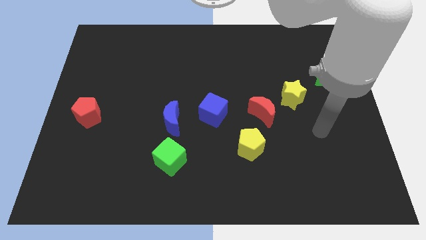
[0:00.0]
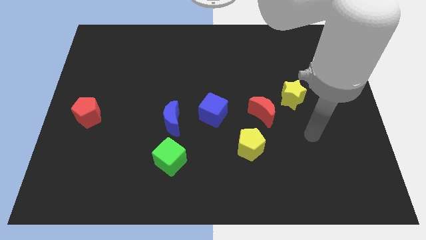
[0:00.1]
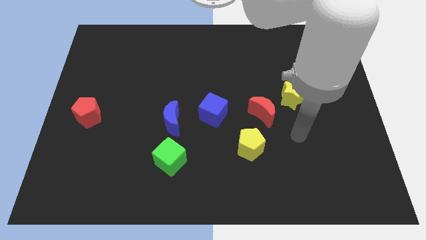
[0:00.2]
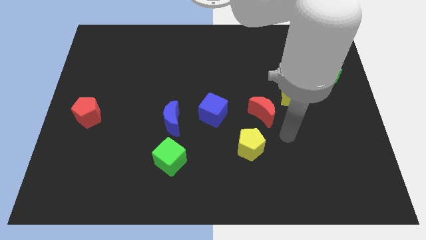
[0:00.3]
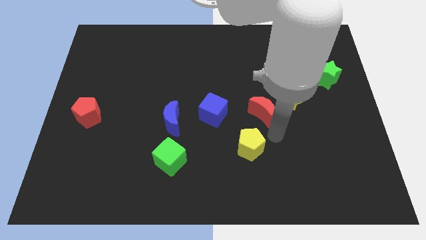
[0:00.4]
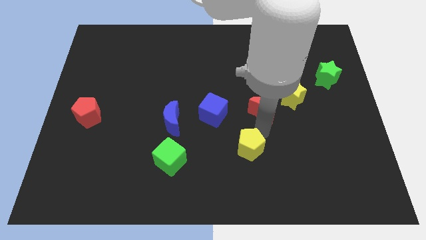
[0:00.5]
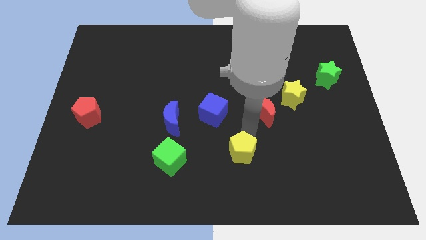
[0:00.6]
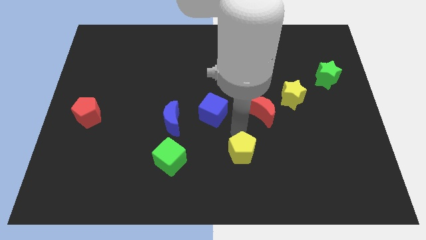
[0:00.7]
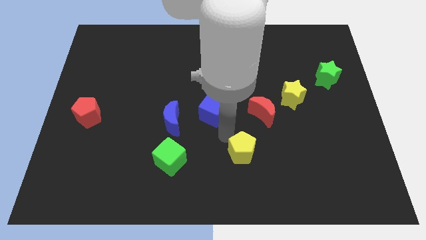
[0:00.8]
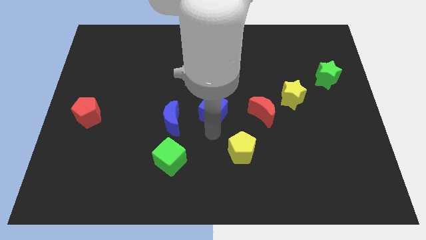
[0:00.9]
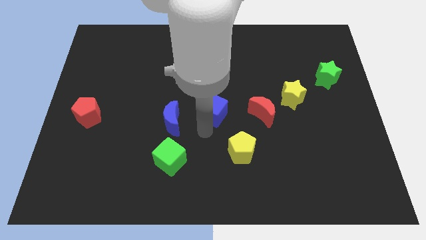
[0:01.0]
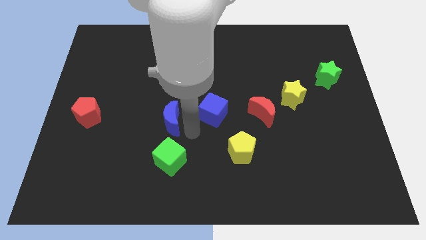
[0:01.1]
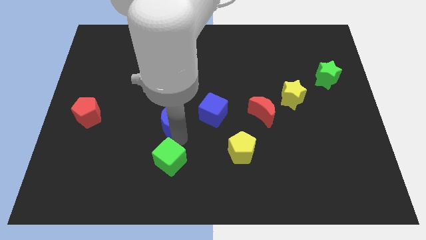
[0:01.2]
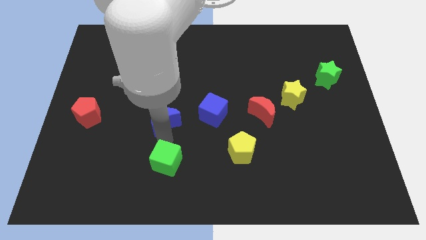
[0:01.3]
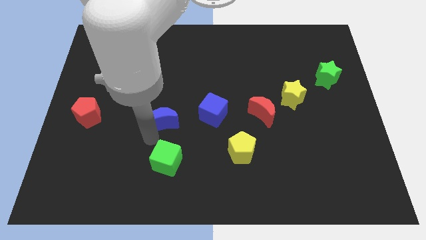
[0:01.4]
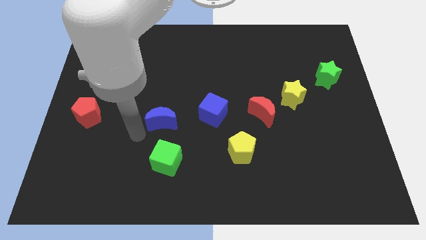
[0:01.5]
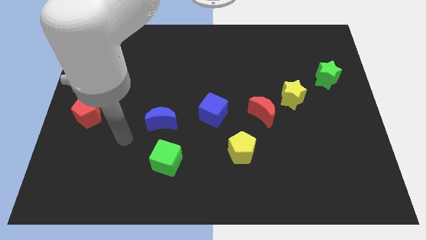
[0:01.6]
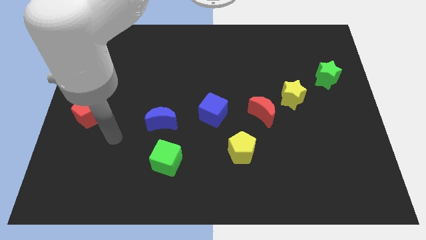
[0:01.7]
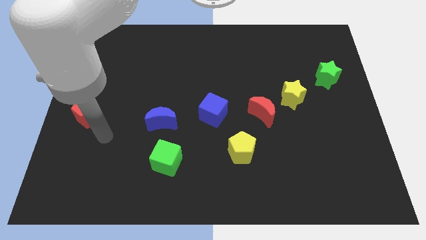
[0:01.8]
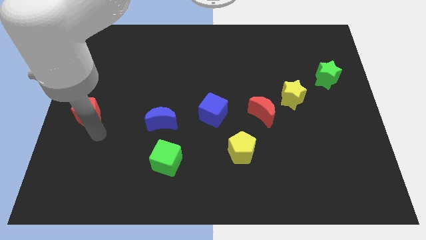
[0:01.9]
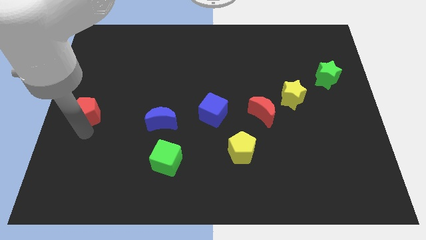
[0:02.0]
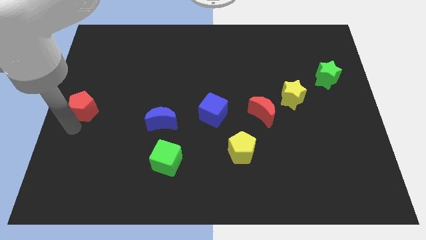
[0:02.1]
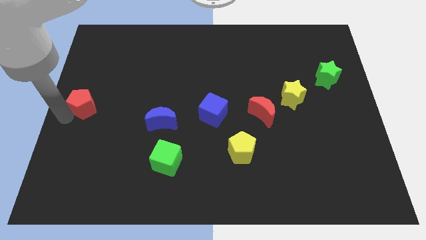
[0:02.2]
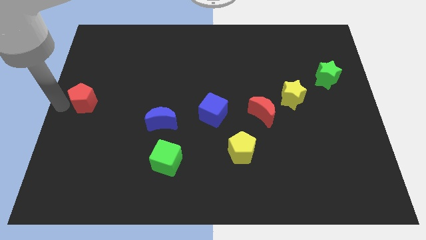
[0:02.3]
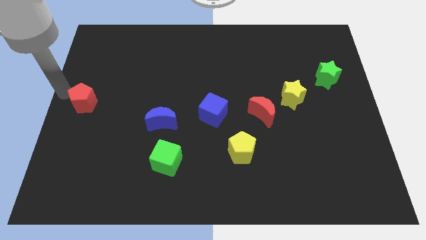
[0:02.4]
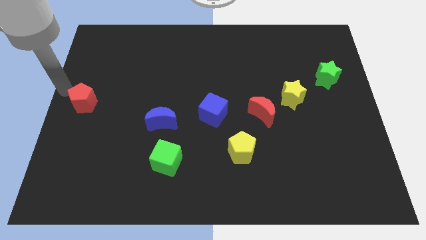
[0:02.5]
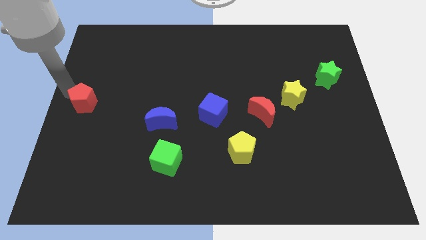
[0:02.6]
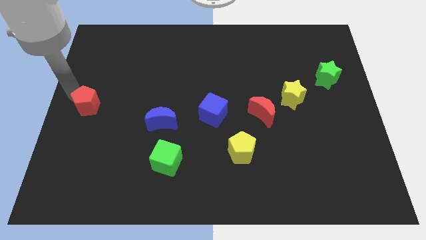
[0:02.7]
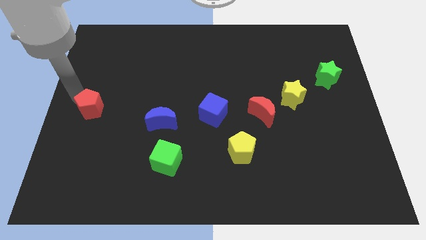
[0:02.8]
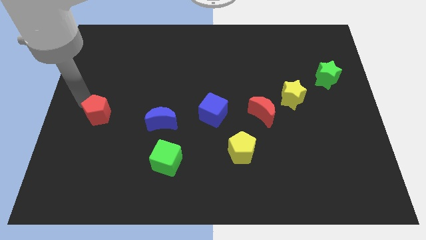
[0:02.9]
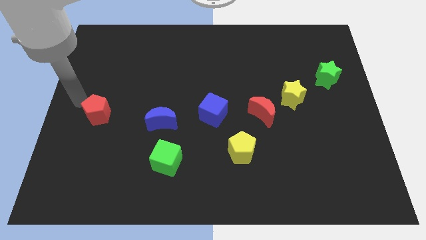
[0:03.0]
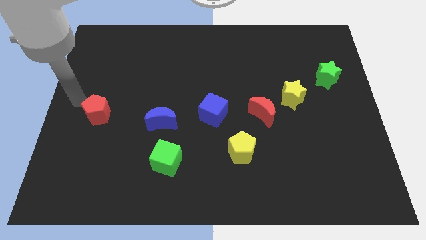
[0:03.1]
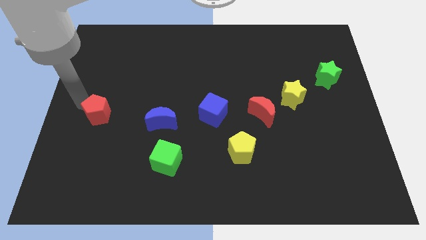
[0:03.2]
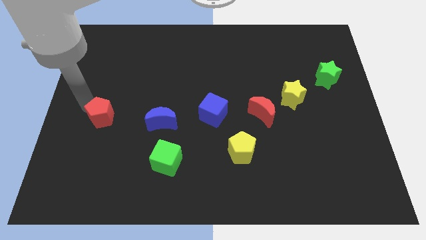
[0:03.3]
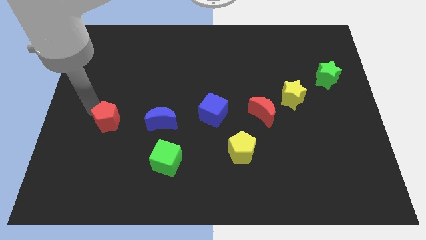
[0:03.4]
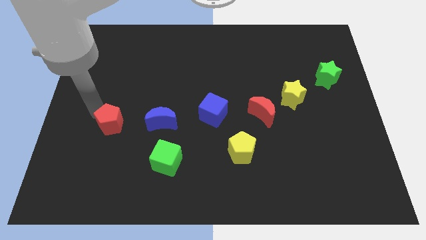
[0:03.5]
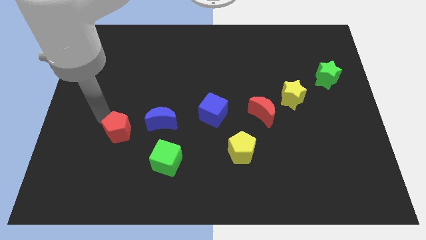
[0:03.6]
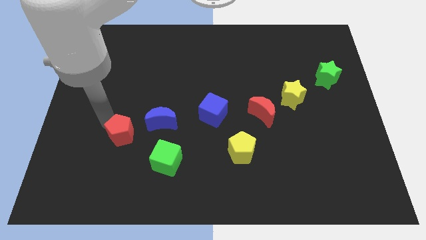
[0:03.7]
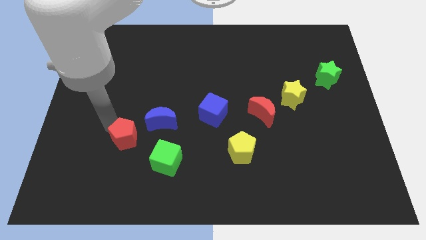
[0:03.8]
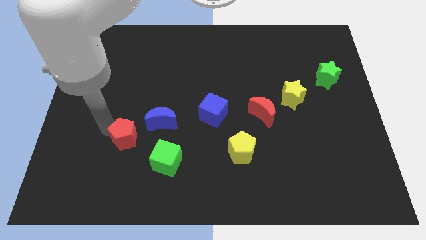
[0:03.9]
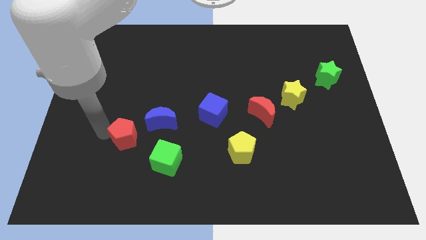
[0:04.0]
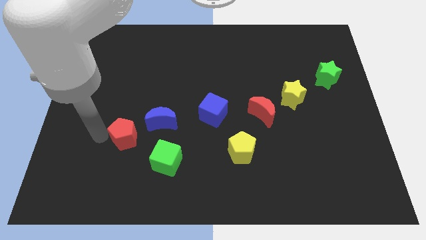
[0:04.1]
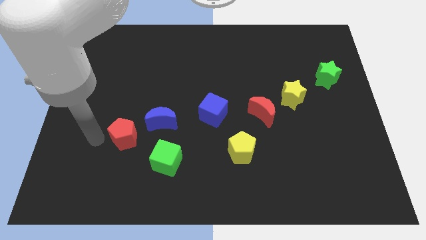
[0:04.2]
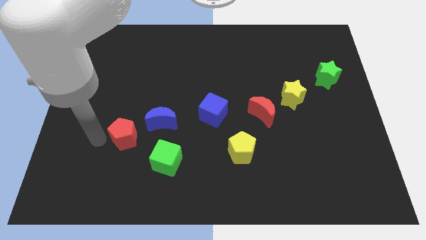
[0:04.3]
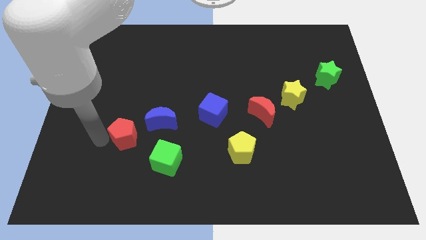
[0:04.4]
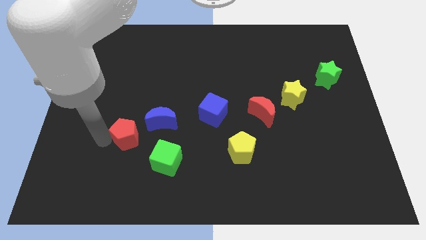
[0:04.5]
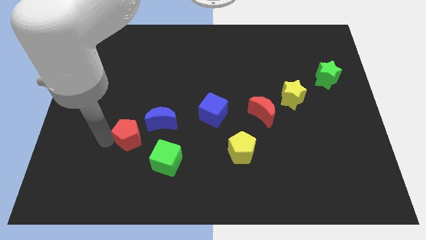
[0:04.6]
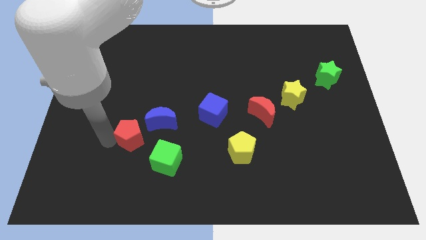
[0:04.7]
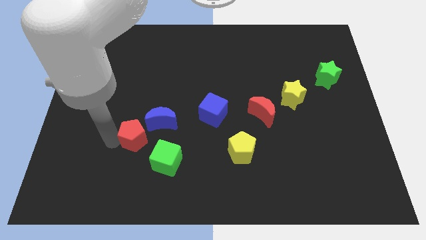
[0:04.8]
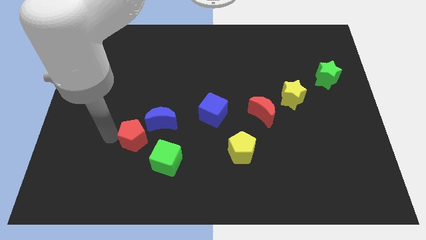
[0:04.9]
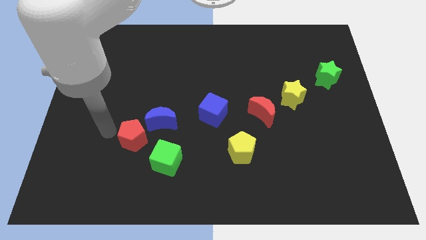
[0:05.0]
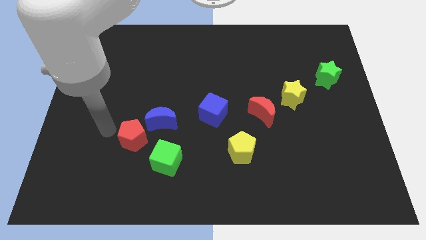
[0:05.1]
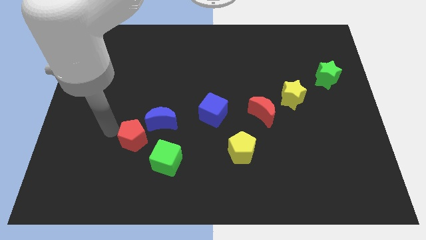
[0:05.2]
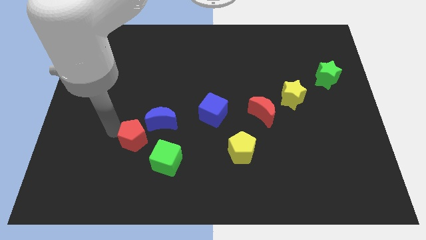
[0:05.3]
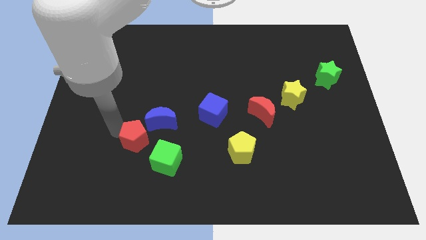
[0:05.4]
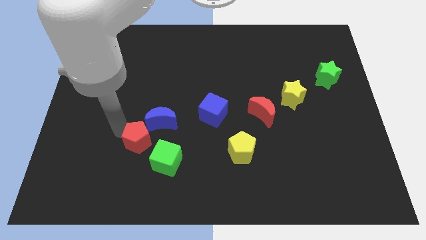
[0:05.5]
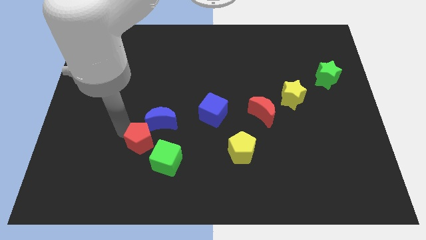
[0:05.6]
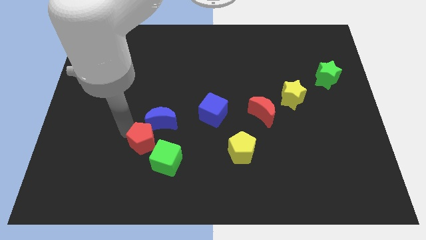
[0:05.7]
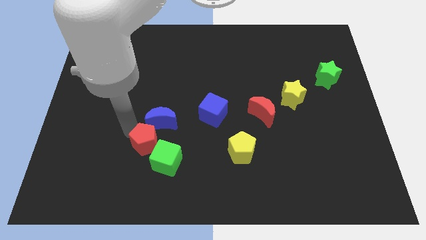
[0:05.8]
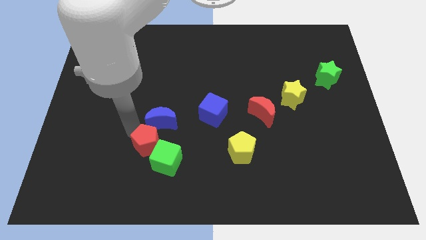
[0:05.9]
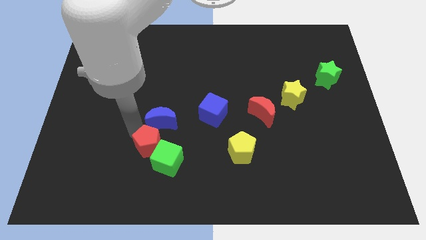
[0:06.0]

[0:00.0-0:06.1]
put the red pentagon towards the green cube

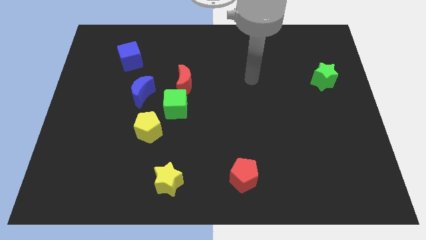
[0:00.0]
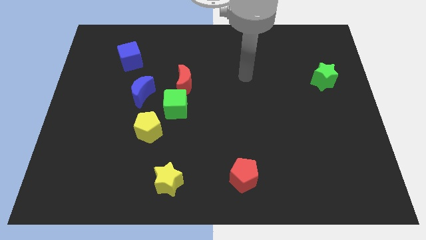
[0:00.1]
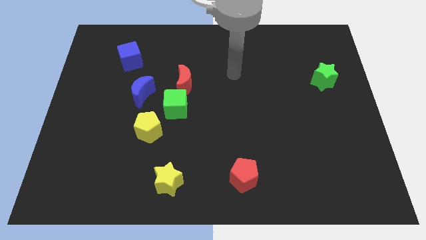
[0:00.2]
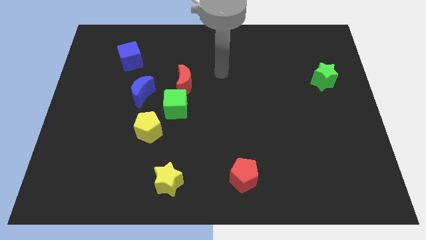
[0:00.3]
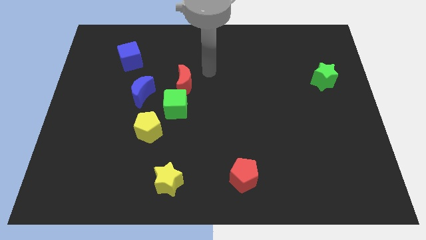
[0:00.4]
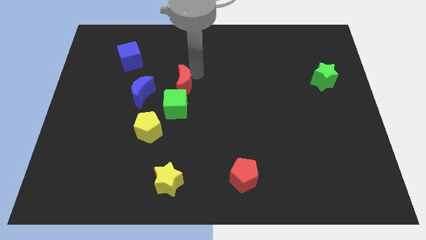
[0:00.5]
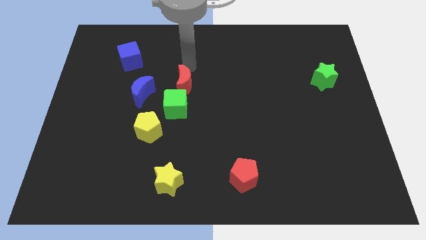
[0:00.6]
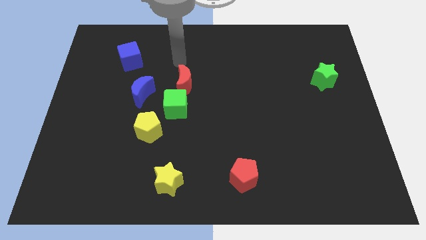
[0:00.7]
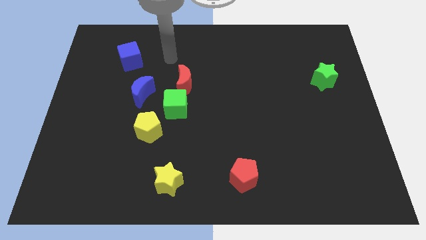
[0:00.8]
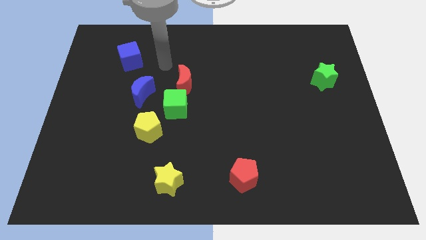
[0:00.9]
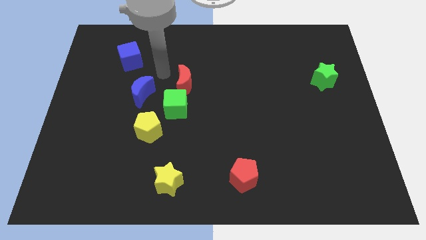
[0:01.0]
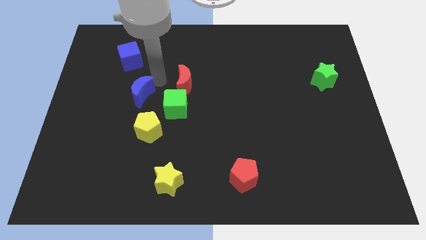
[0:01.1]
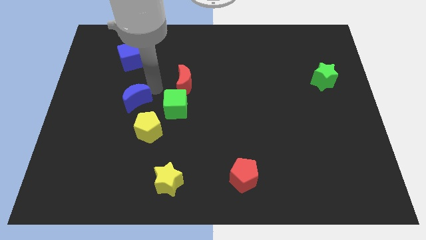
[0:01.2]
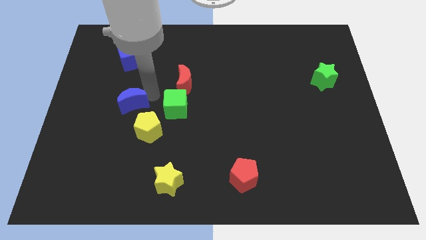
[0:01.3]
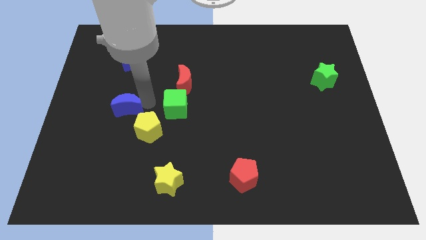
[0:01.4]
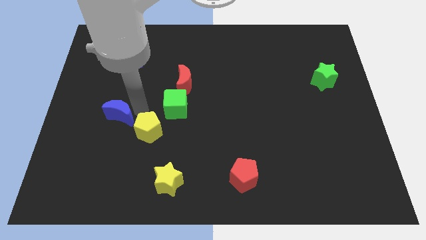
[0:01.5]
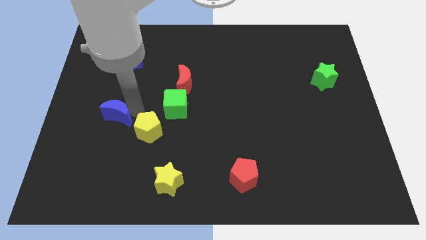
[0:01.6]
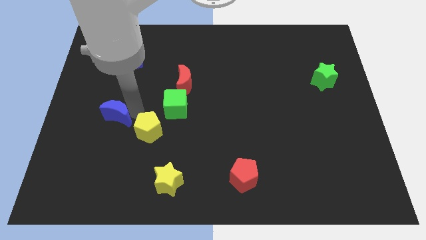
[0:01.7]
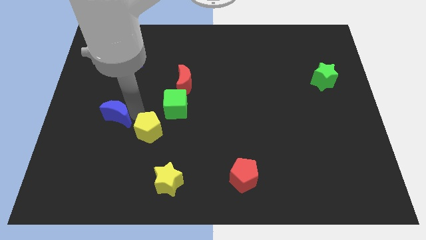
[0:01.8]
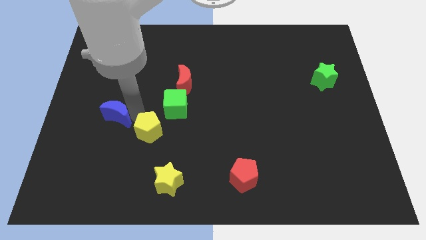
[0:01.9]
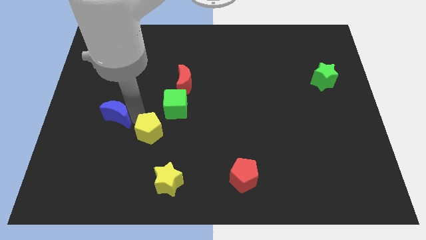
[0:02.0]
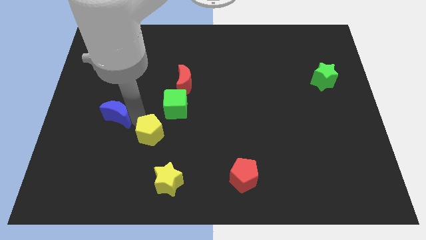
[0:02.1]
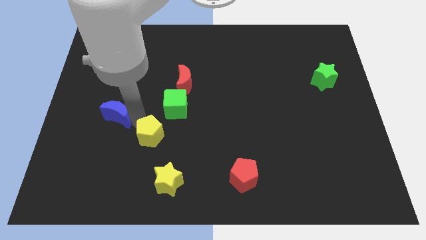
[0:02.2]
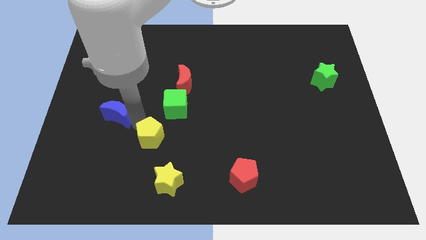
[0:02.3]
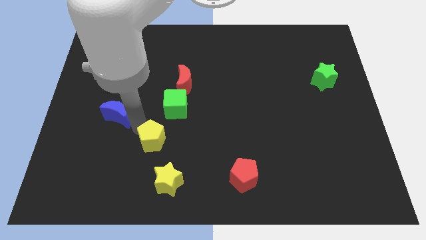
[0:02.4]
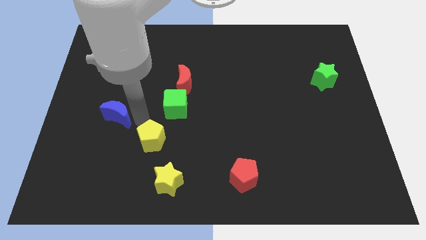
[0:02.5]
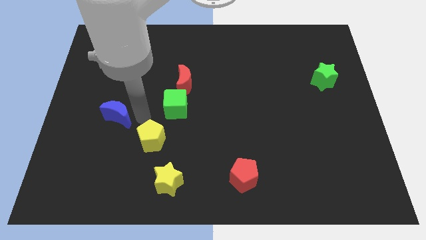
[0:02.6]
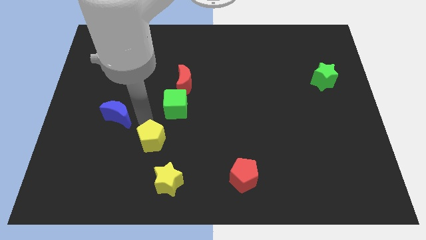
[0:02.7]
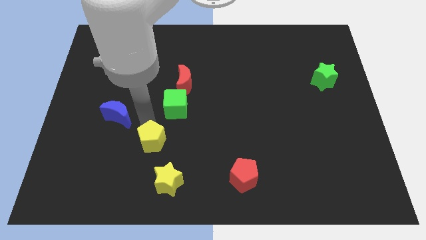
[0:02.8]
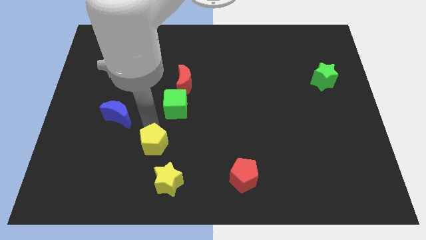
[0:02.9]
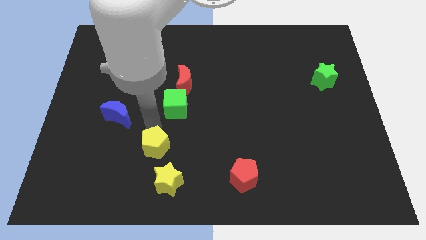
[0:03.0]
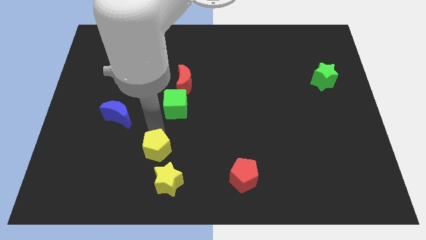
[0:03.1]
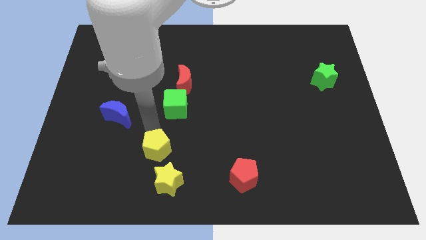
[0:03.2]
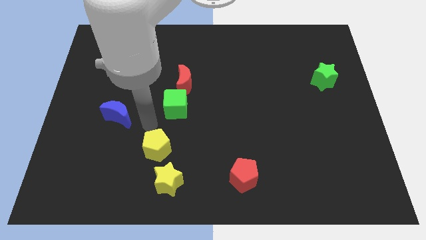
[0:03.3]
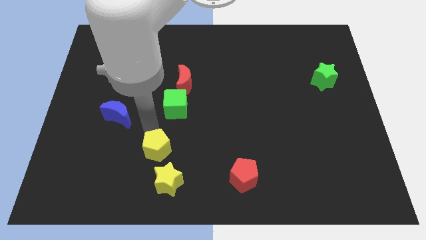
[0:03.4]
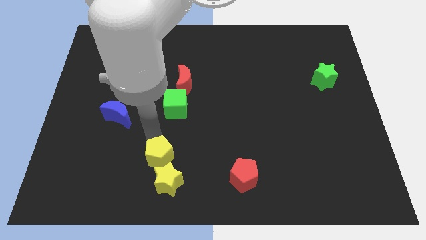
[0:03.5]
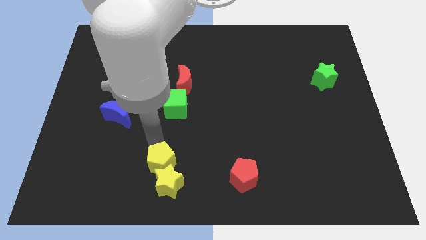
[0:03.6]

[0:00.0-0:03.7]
move the yellow pentagon to the yellow star
